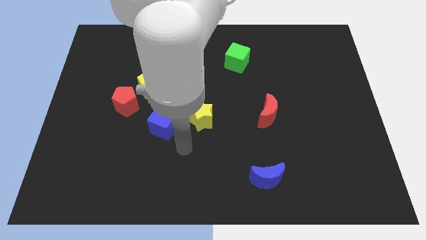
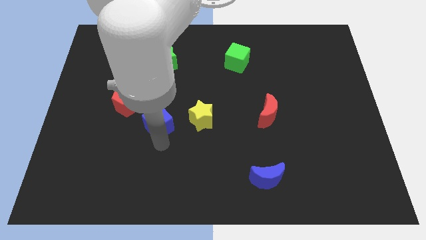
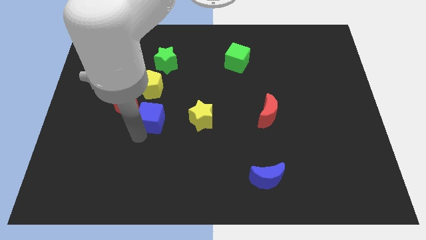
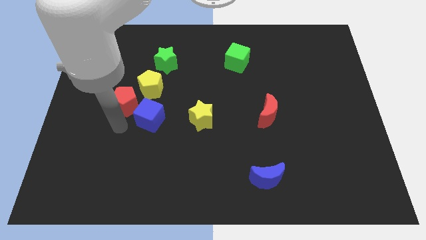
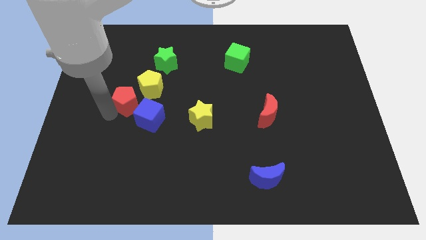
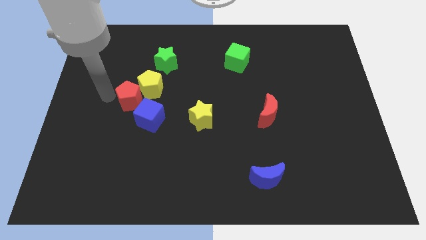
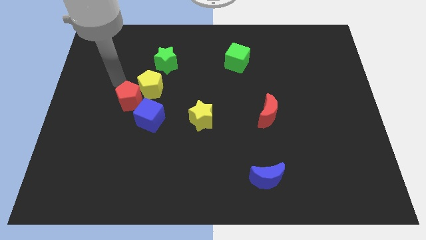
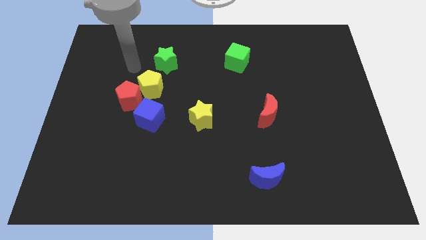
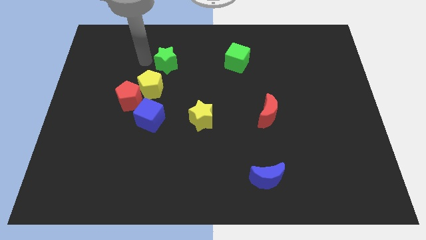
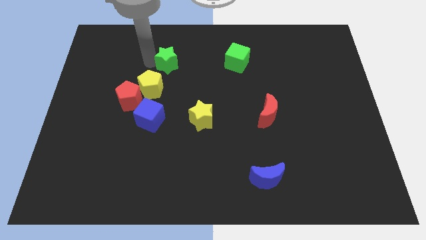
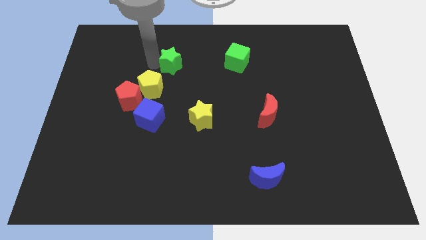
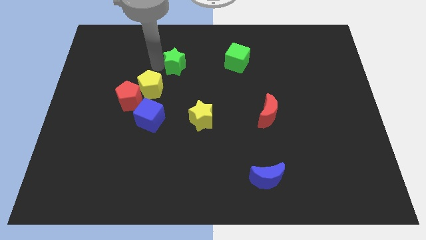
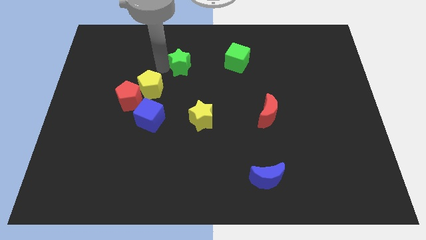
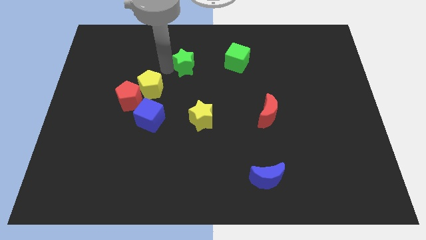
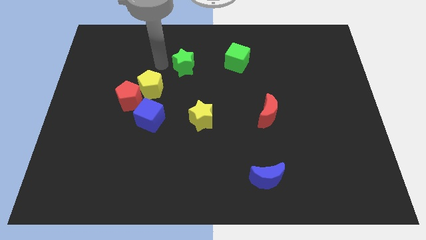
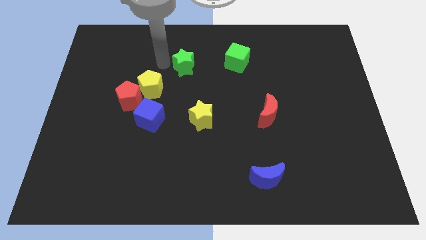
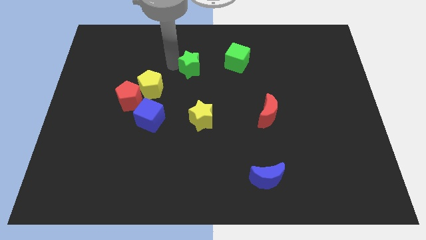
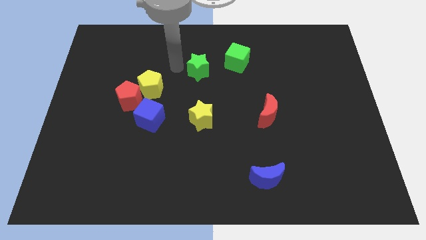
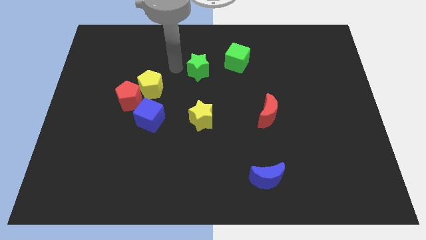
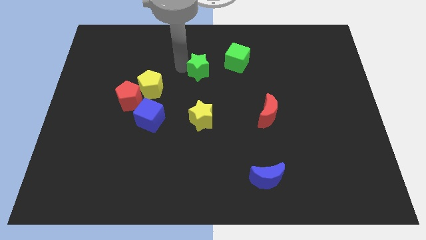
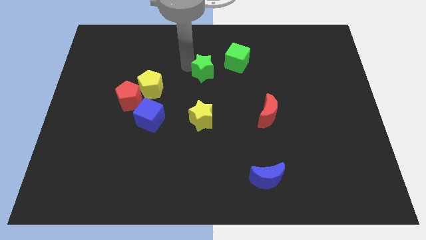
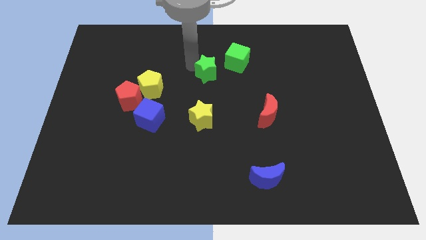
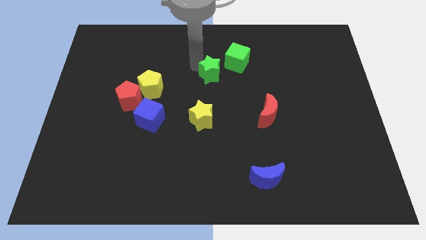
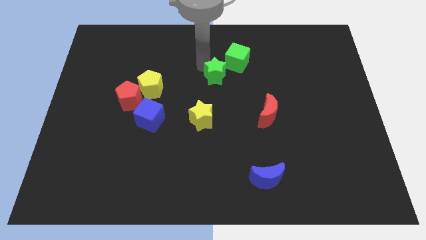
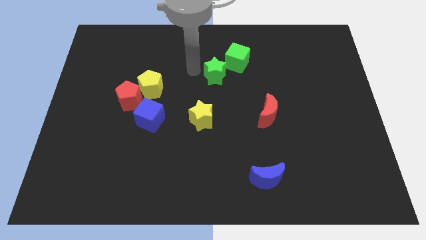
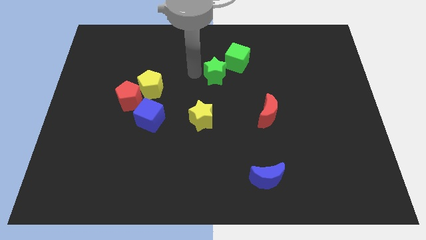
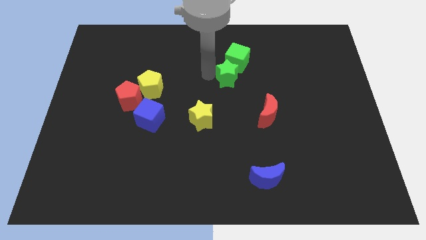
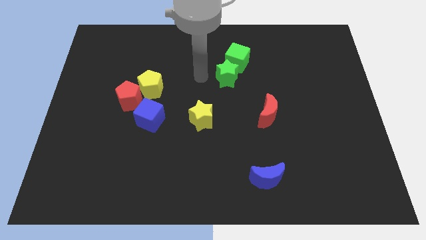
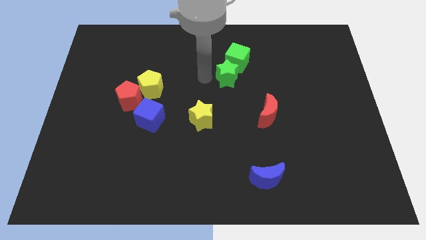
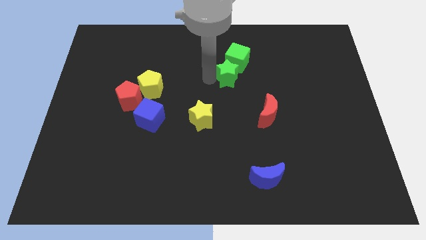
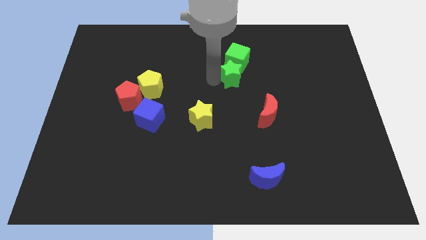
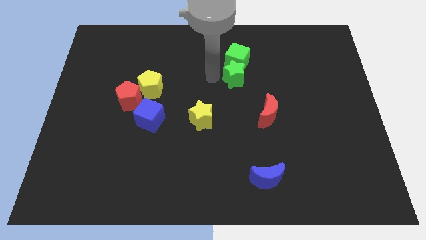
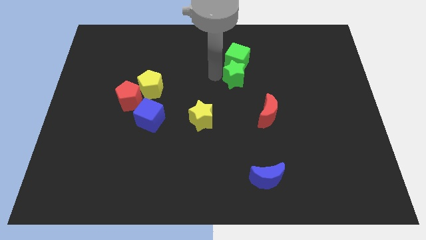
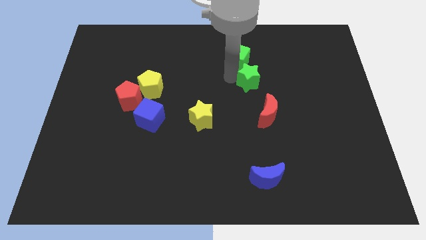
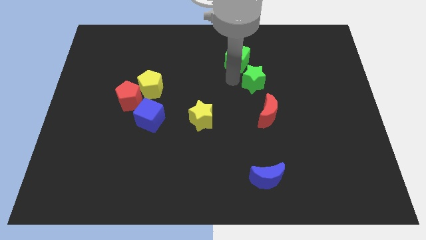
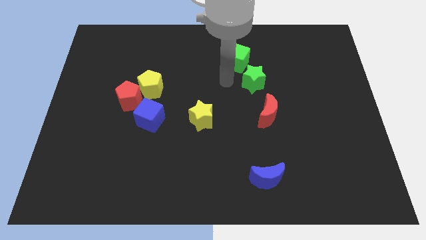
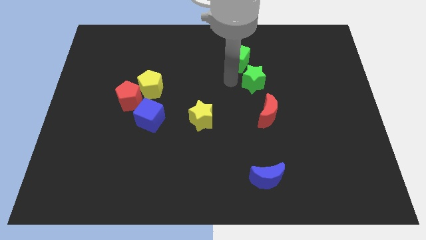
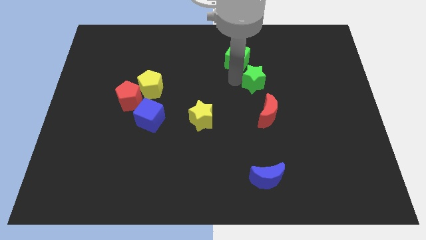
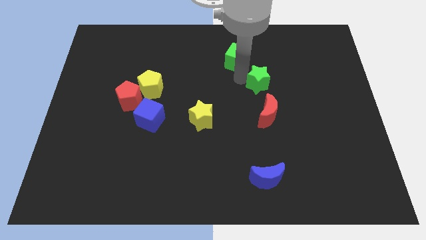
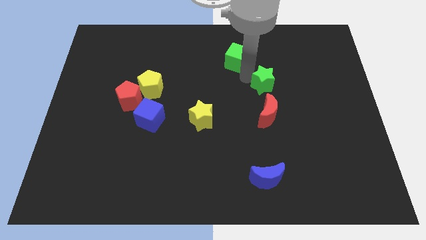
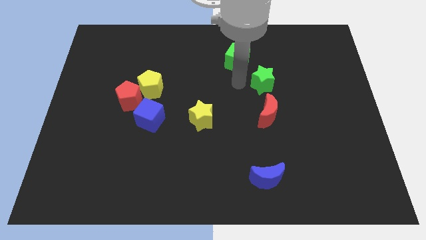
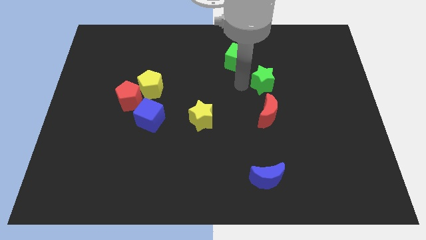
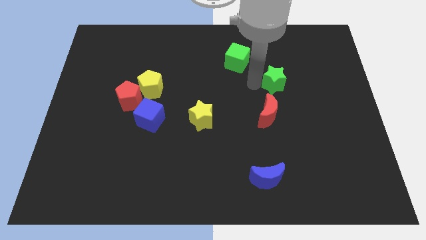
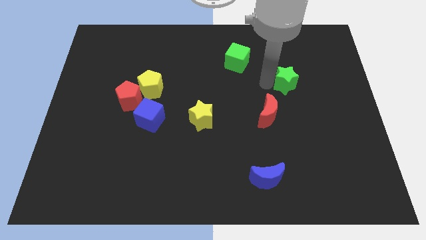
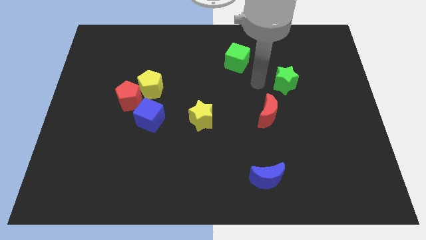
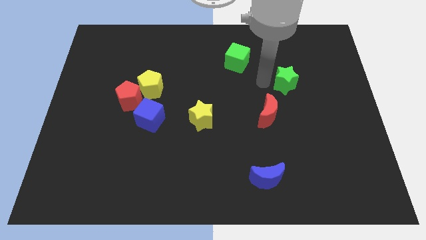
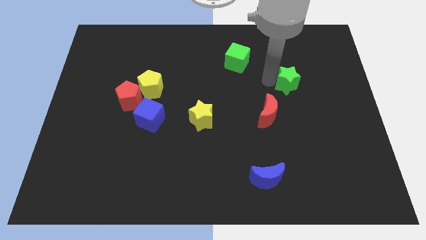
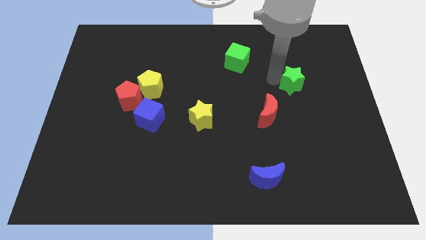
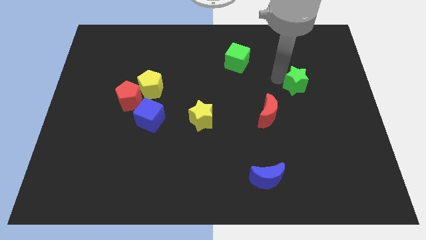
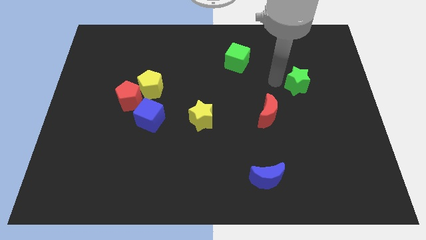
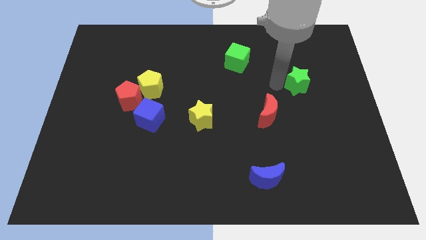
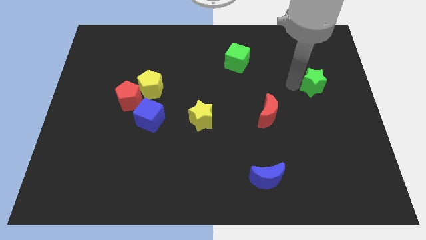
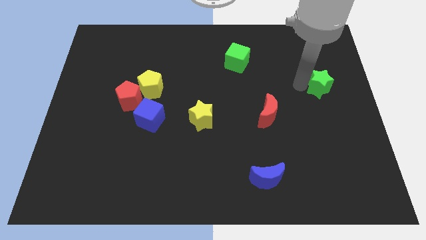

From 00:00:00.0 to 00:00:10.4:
put the green star to the right side of the board

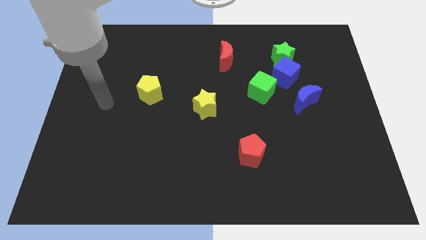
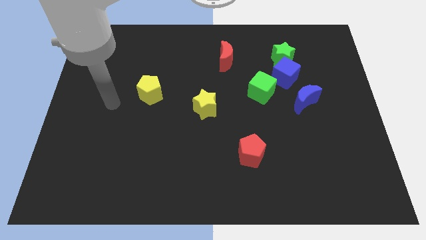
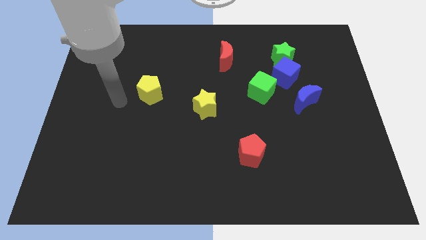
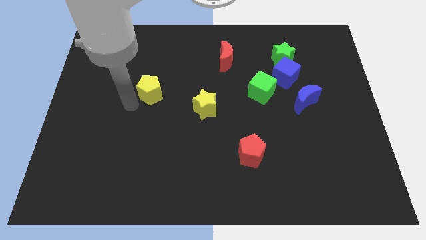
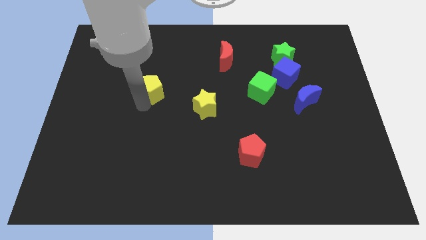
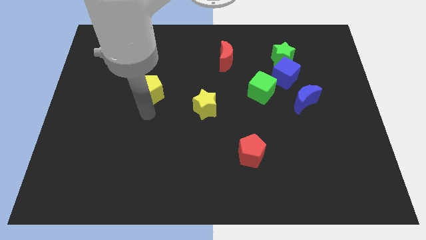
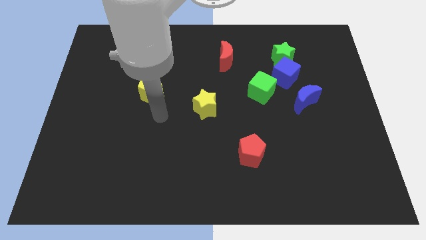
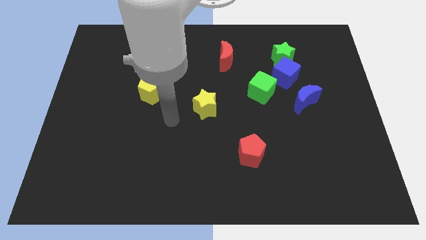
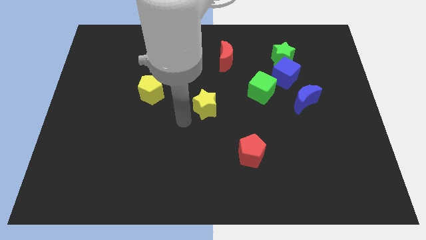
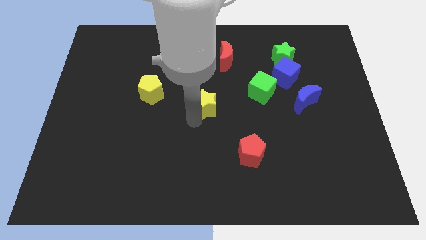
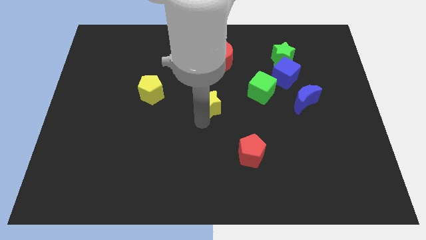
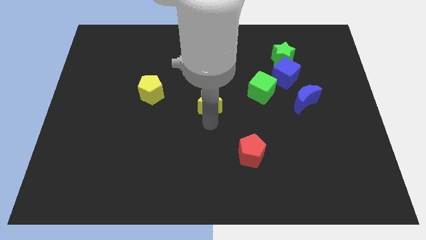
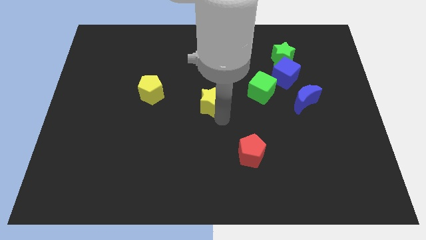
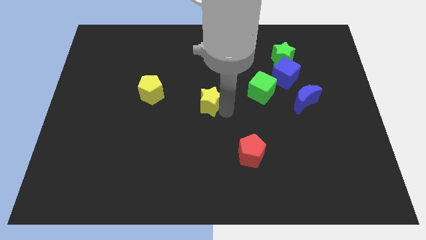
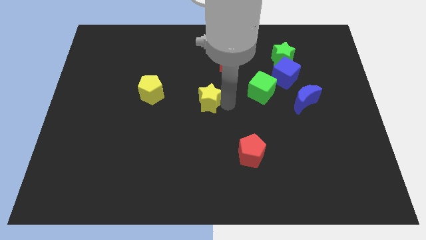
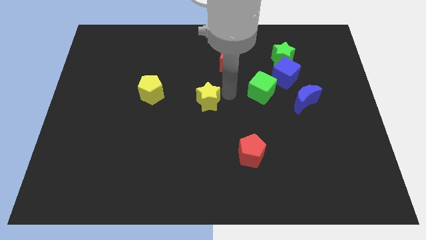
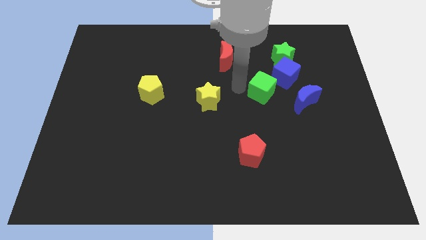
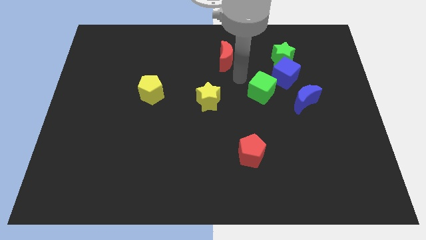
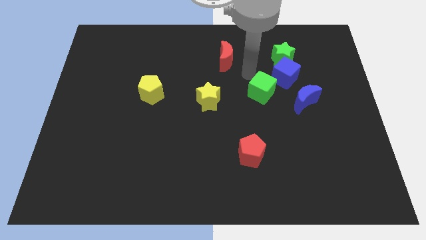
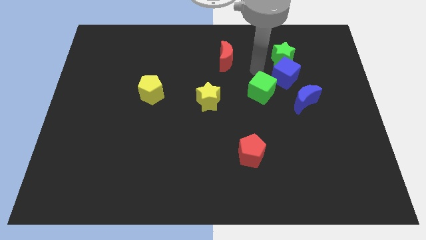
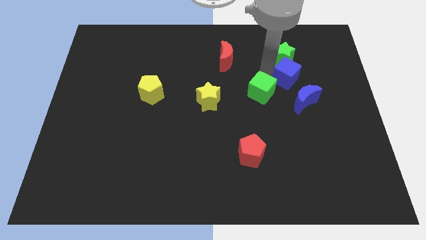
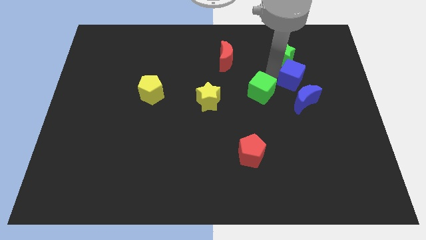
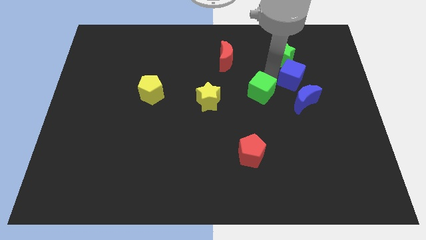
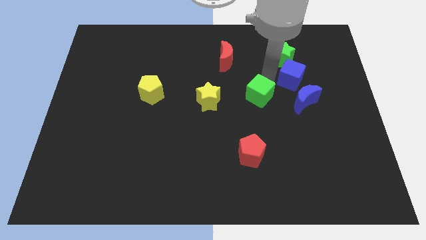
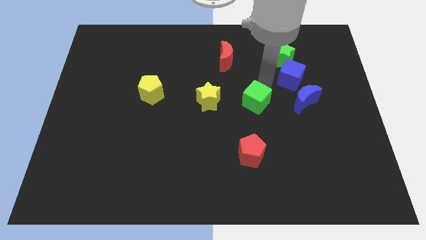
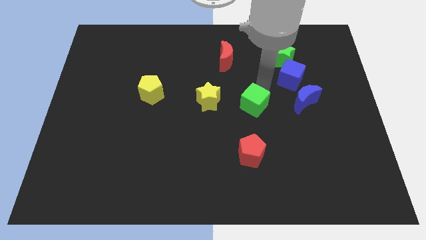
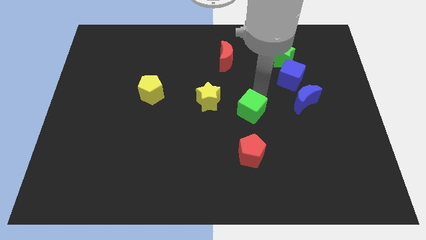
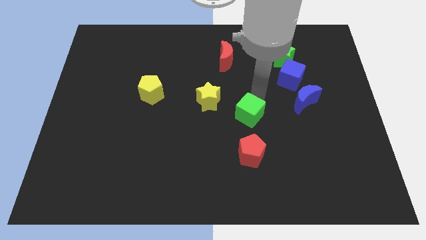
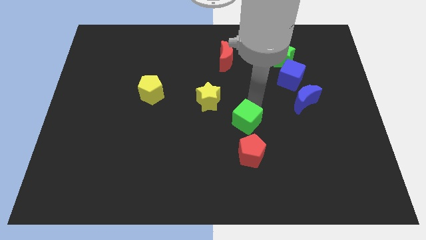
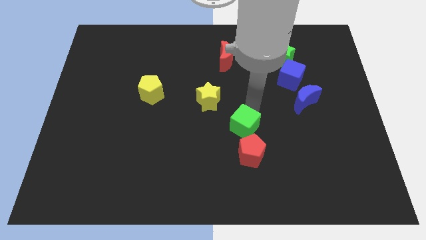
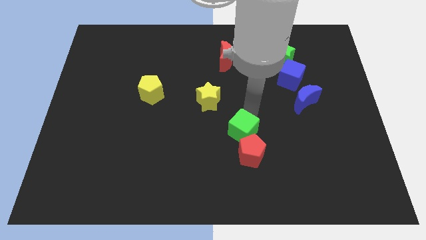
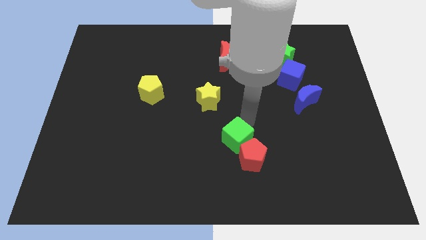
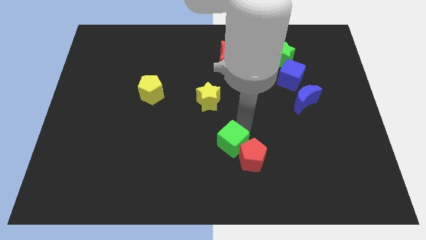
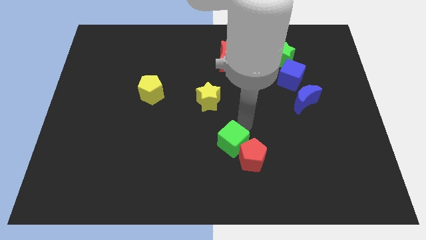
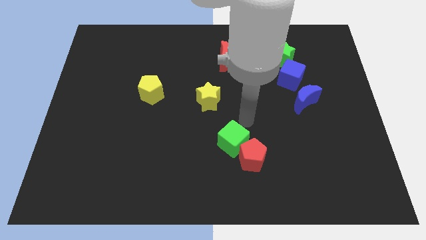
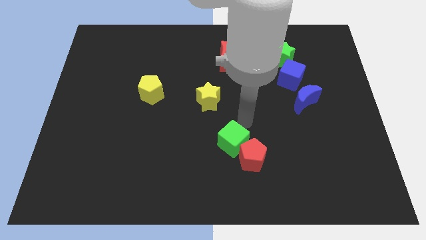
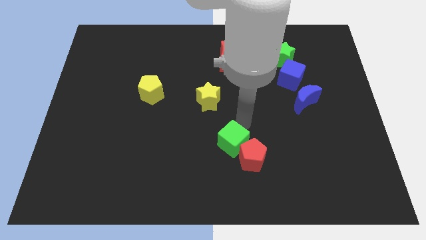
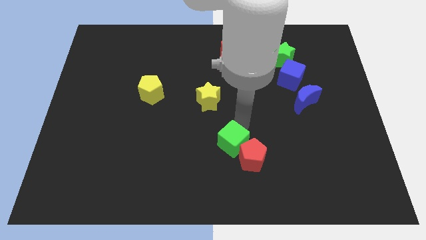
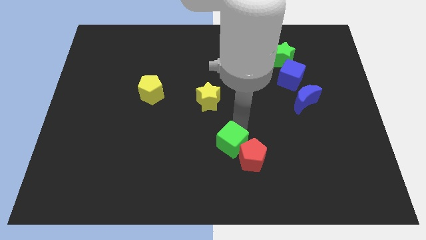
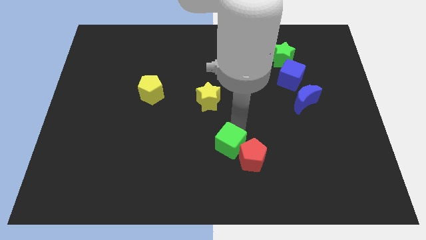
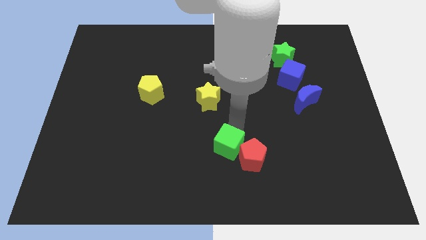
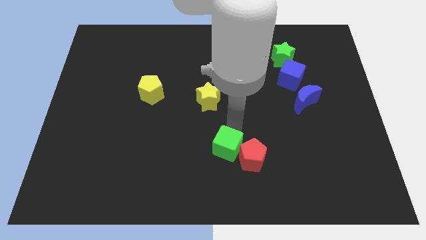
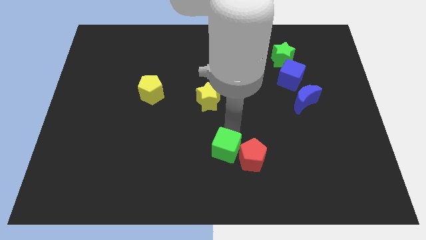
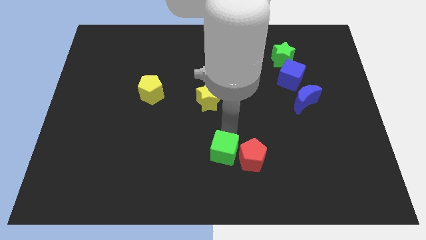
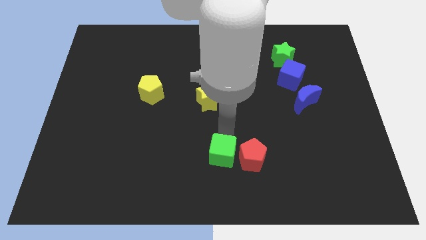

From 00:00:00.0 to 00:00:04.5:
move the green cube to the bottom
